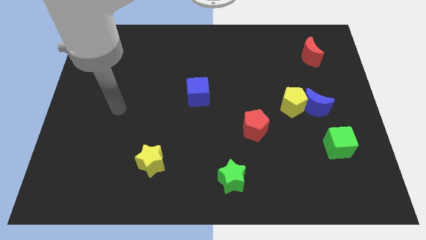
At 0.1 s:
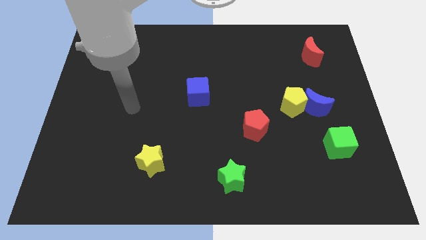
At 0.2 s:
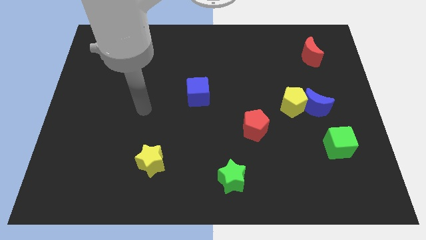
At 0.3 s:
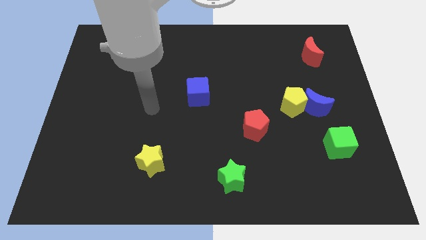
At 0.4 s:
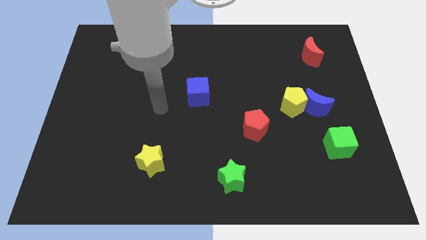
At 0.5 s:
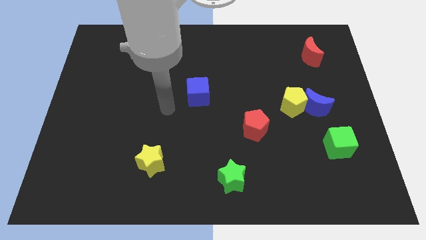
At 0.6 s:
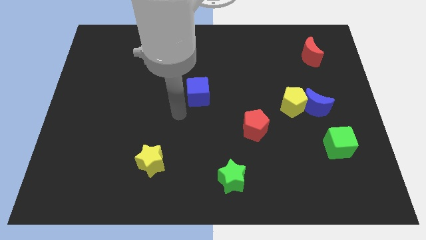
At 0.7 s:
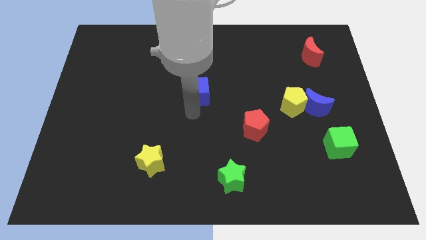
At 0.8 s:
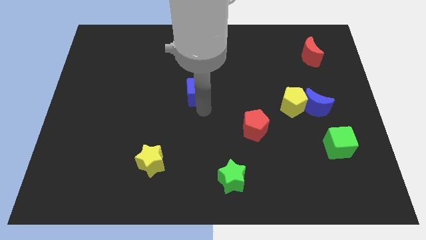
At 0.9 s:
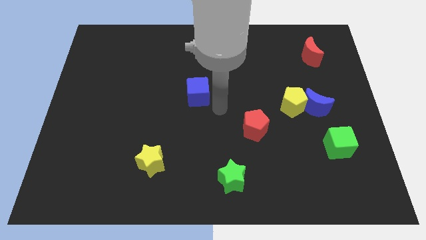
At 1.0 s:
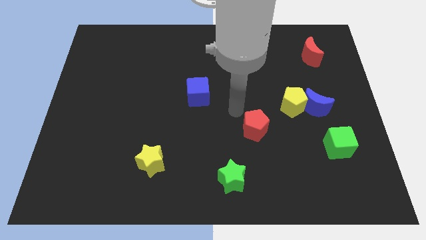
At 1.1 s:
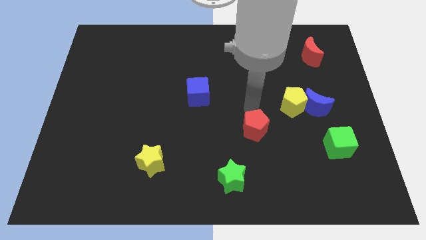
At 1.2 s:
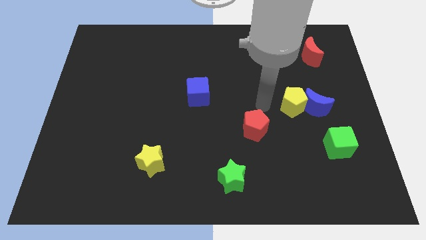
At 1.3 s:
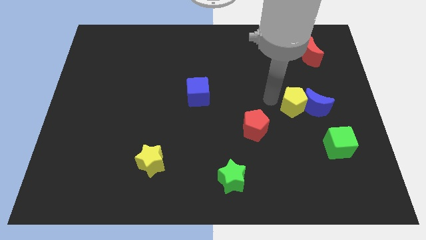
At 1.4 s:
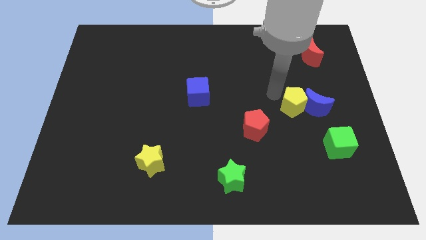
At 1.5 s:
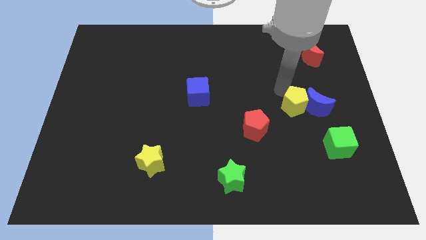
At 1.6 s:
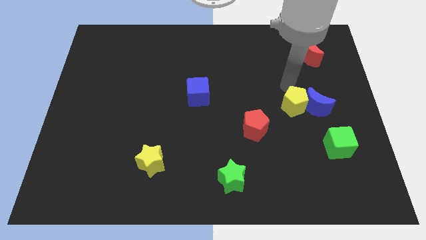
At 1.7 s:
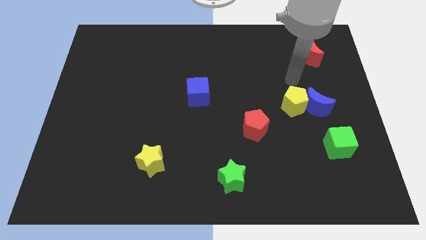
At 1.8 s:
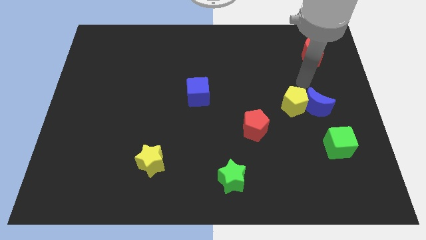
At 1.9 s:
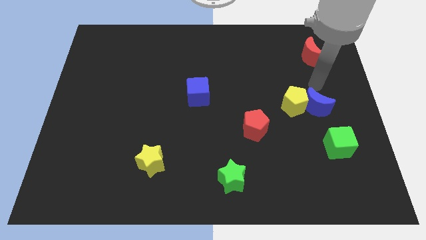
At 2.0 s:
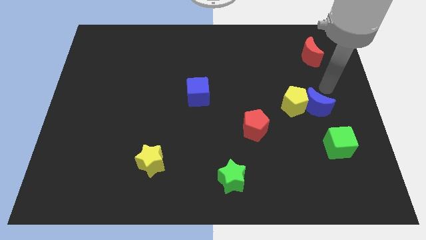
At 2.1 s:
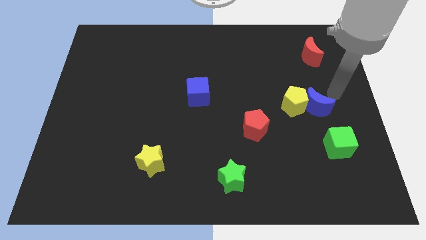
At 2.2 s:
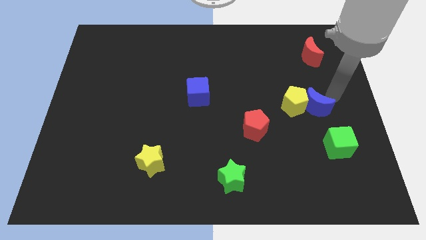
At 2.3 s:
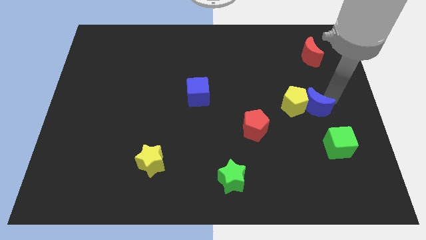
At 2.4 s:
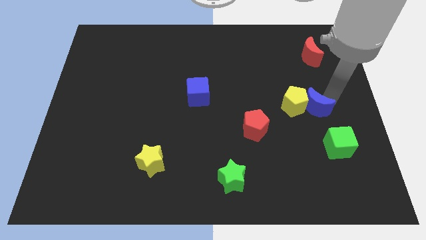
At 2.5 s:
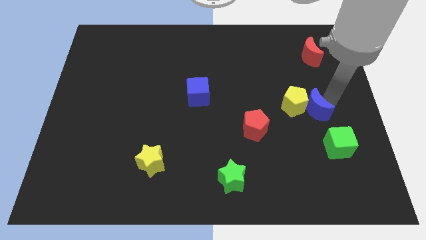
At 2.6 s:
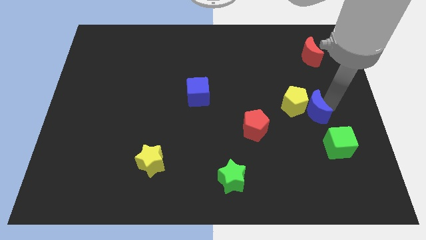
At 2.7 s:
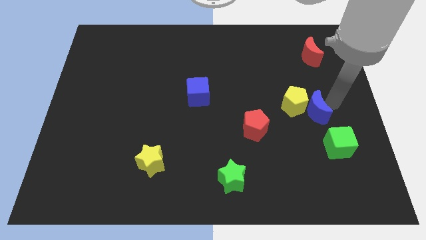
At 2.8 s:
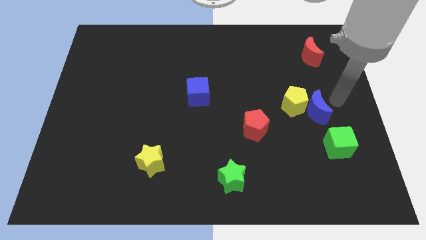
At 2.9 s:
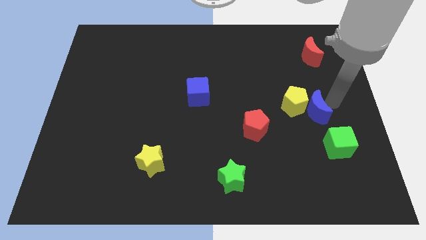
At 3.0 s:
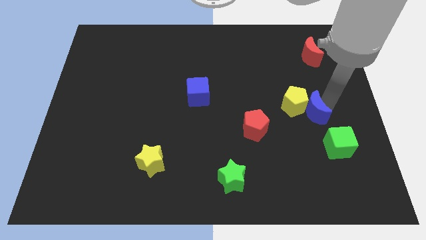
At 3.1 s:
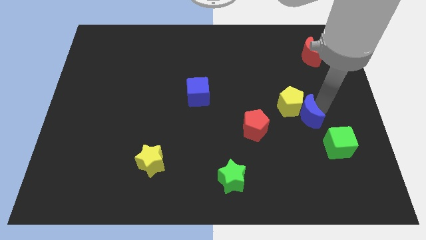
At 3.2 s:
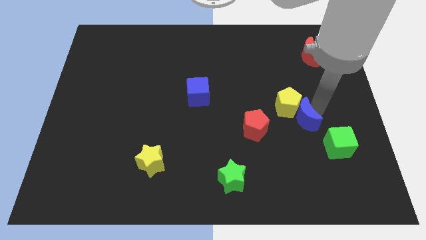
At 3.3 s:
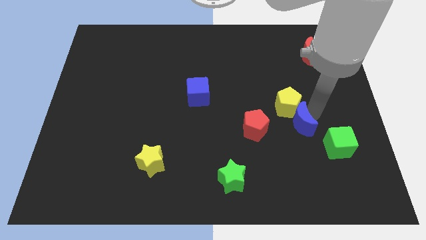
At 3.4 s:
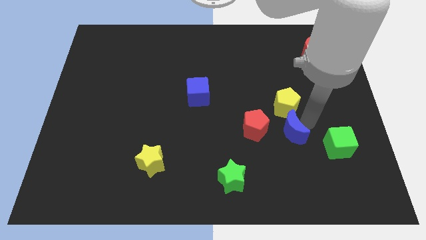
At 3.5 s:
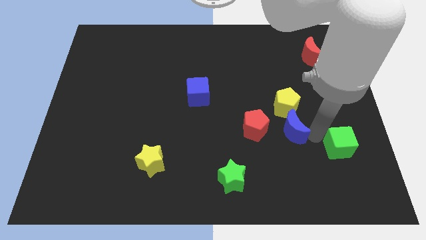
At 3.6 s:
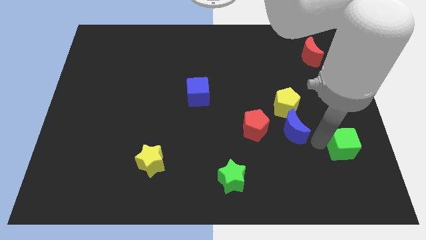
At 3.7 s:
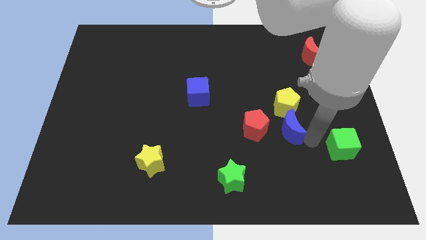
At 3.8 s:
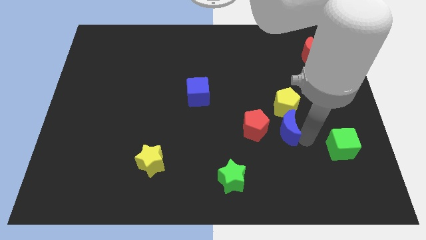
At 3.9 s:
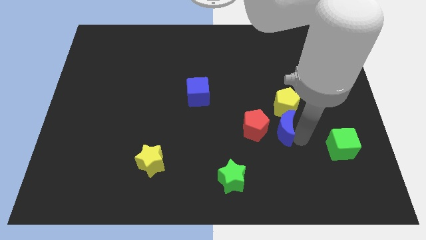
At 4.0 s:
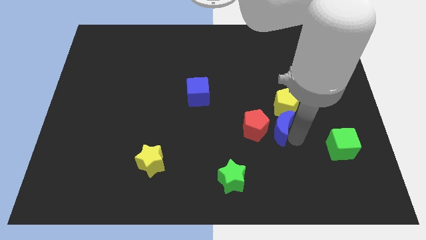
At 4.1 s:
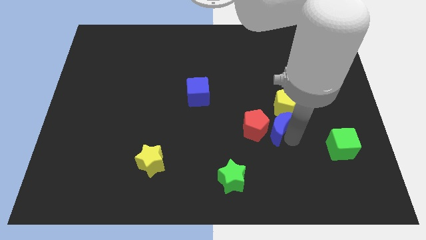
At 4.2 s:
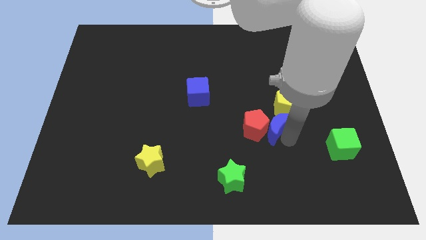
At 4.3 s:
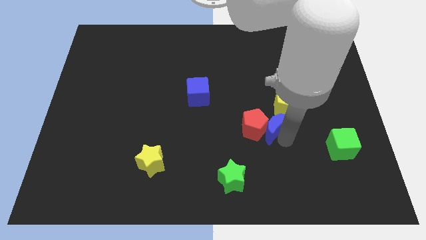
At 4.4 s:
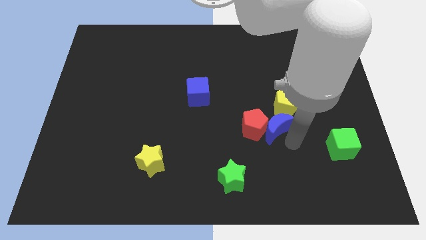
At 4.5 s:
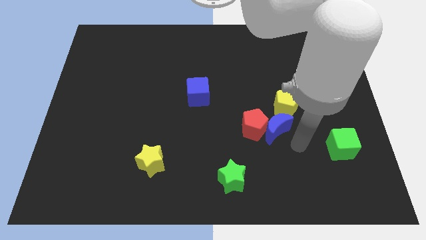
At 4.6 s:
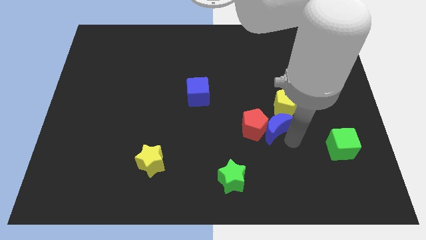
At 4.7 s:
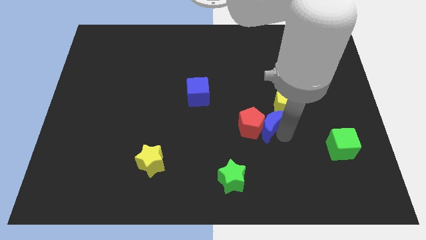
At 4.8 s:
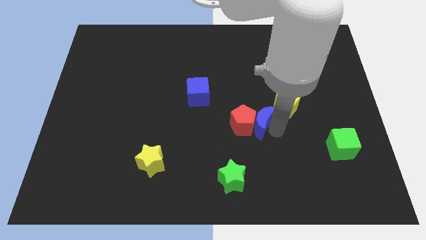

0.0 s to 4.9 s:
move the blue moon just left of the yellow pentagon

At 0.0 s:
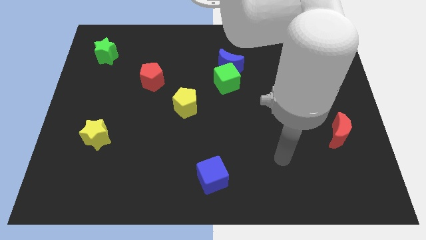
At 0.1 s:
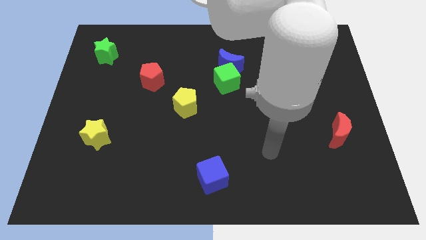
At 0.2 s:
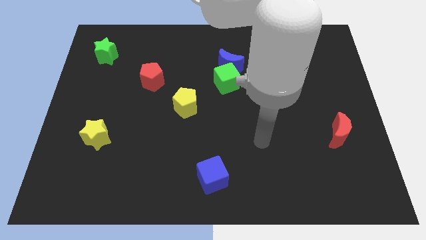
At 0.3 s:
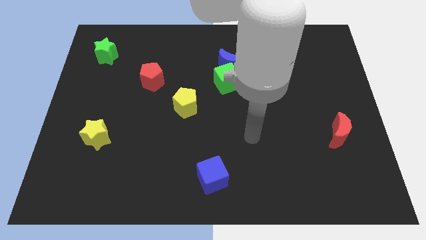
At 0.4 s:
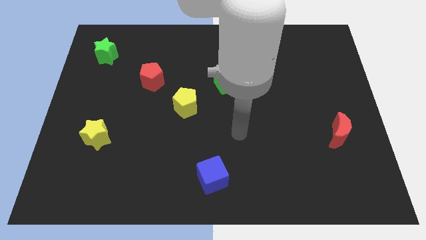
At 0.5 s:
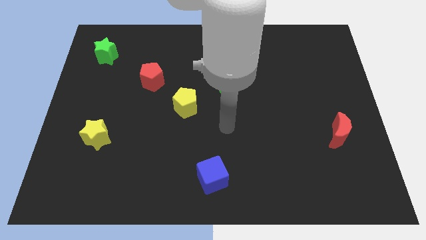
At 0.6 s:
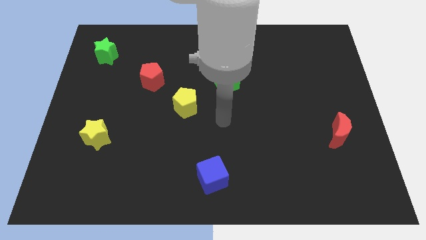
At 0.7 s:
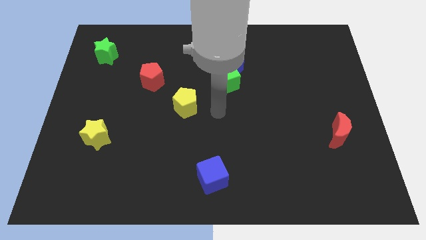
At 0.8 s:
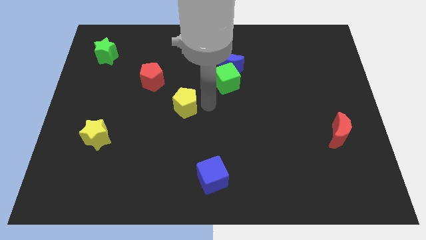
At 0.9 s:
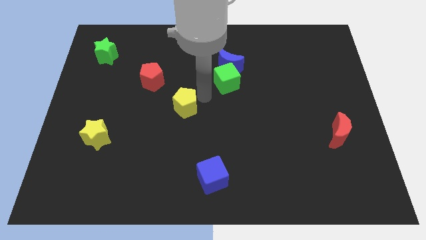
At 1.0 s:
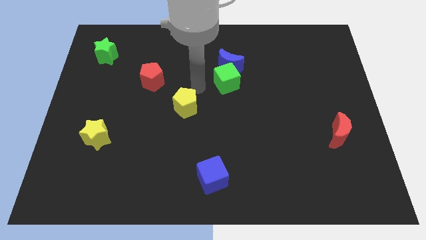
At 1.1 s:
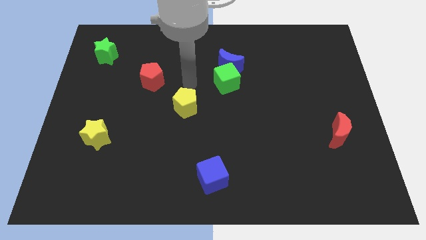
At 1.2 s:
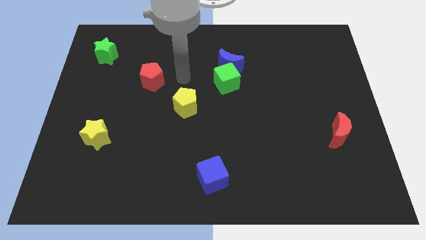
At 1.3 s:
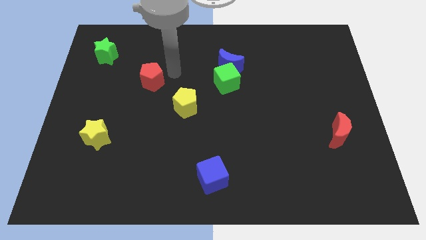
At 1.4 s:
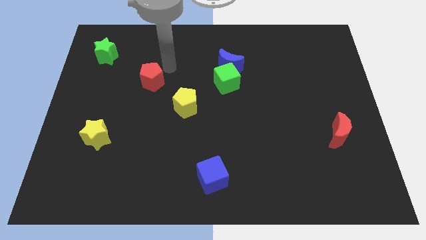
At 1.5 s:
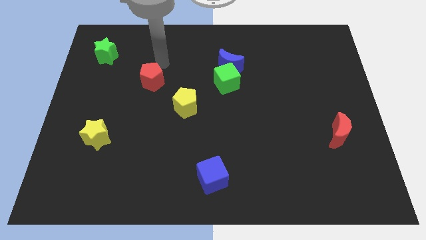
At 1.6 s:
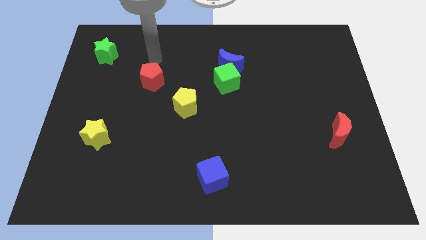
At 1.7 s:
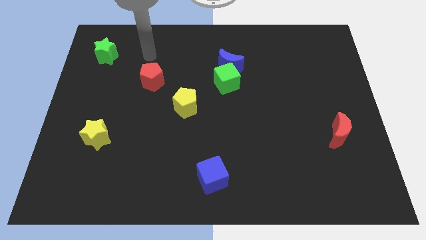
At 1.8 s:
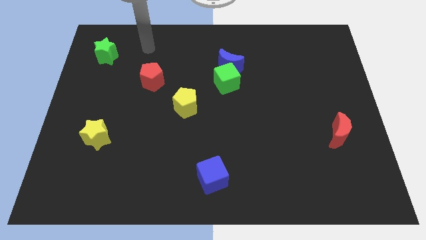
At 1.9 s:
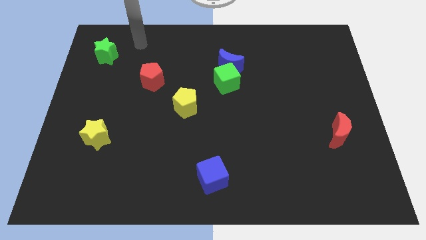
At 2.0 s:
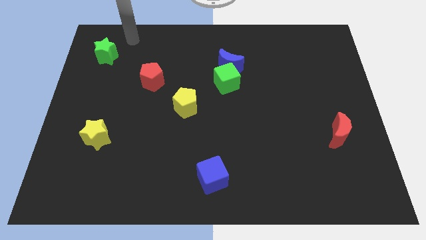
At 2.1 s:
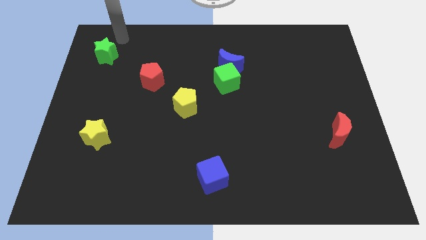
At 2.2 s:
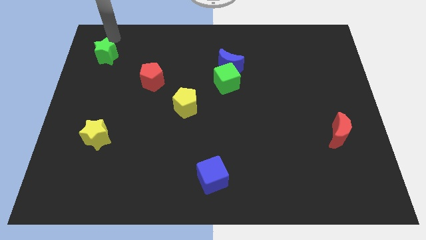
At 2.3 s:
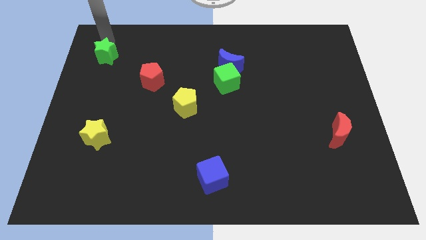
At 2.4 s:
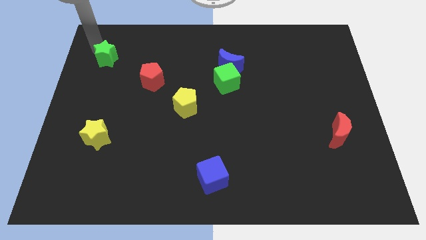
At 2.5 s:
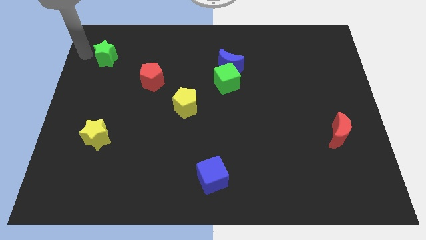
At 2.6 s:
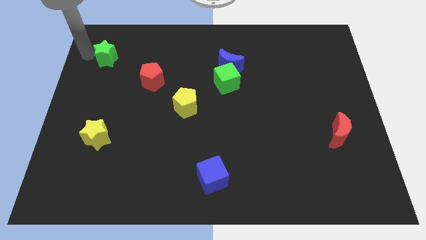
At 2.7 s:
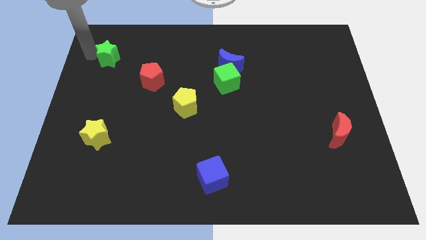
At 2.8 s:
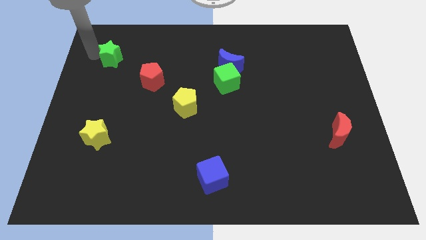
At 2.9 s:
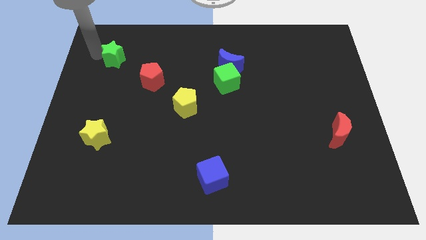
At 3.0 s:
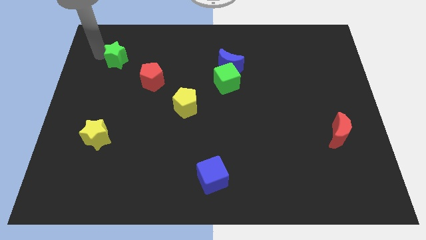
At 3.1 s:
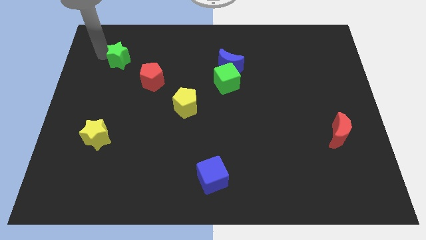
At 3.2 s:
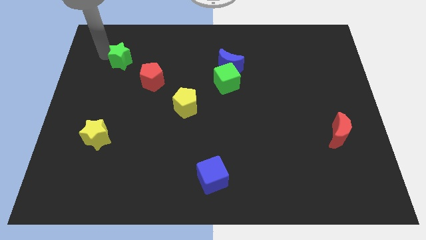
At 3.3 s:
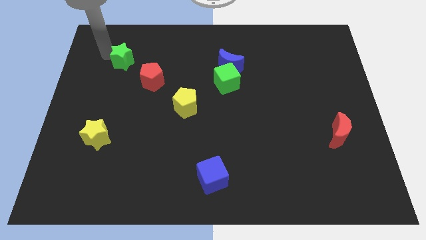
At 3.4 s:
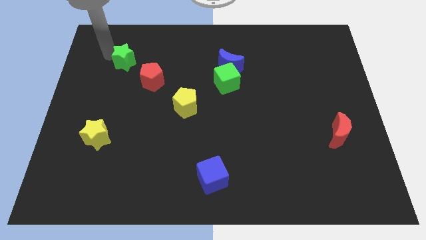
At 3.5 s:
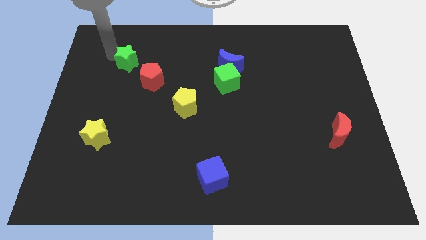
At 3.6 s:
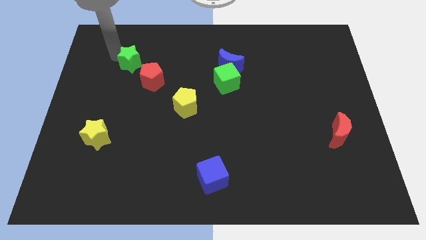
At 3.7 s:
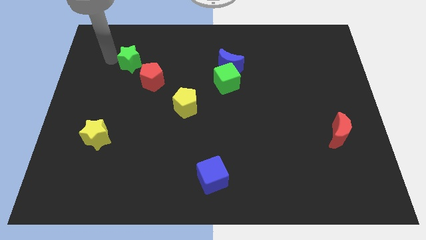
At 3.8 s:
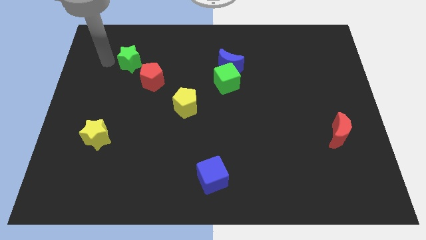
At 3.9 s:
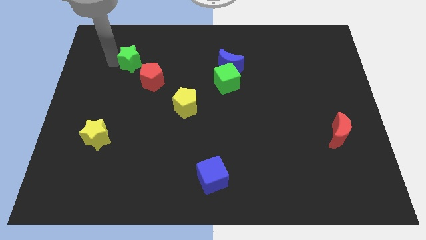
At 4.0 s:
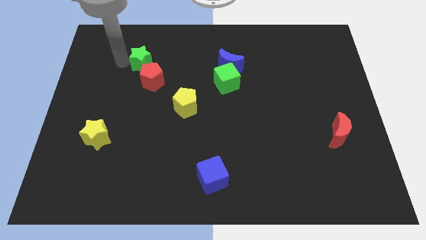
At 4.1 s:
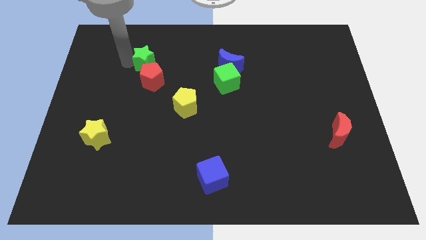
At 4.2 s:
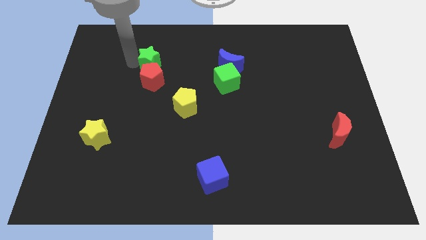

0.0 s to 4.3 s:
push the green star to the top right of the red pentagon
